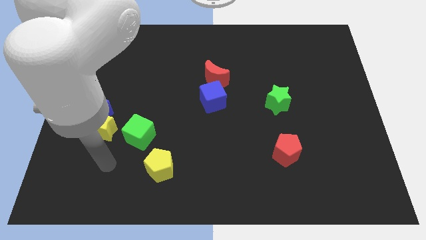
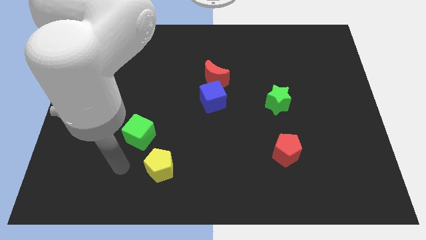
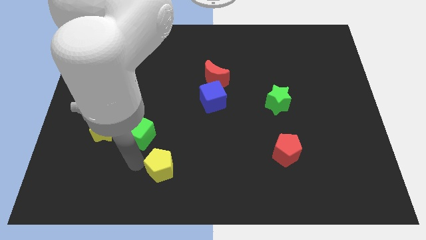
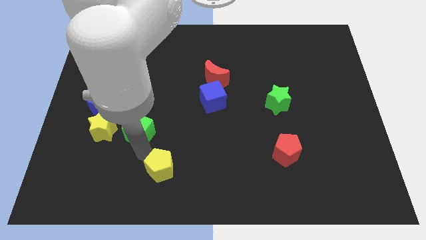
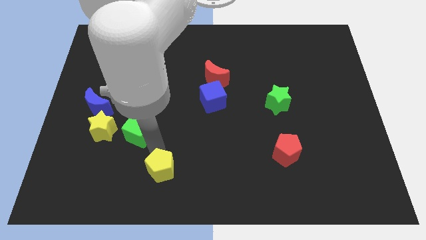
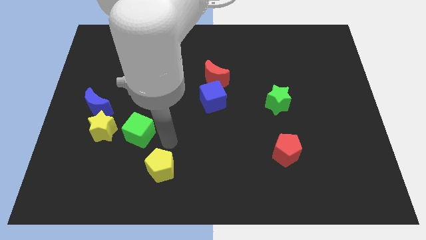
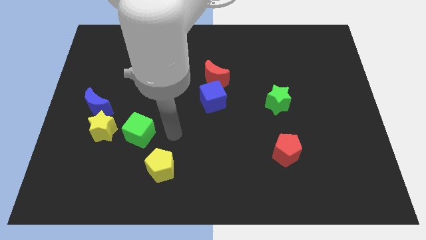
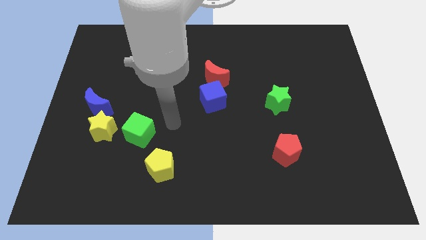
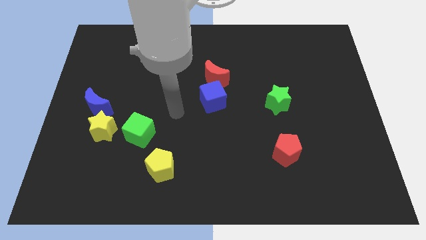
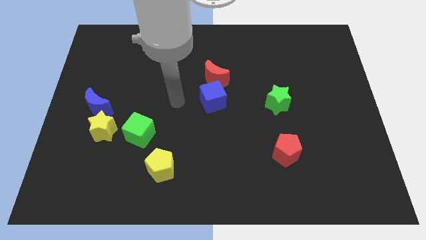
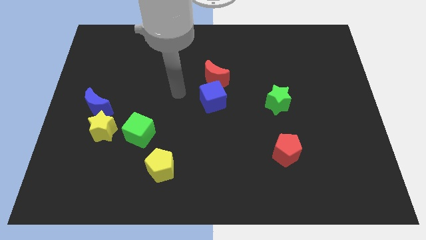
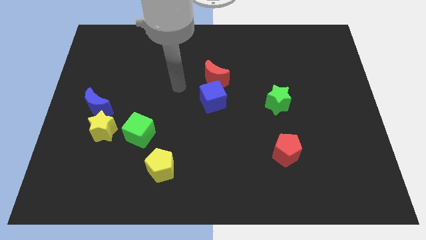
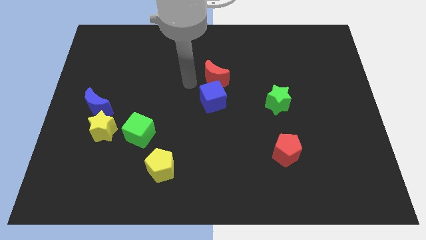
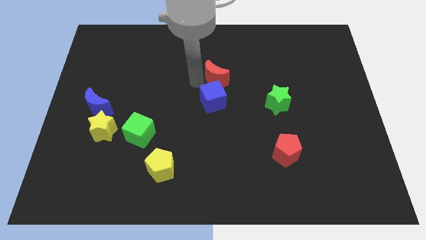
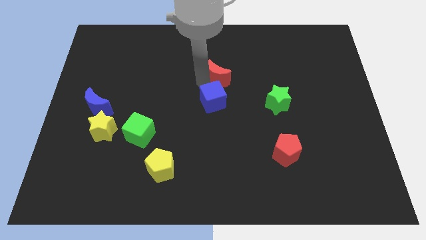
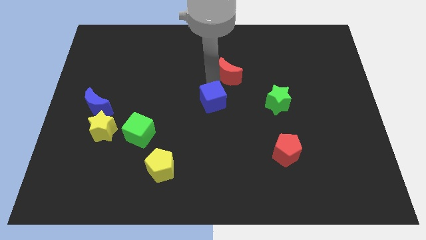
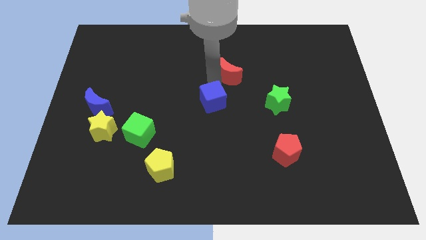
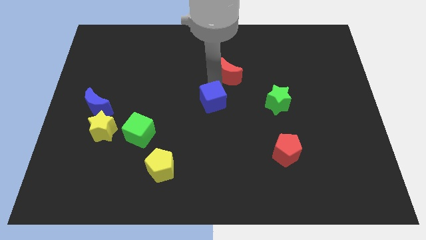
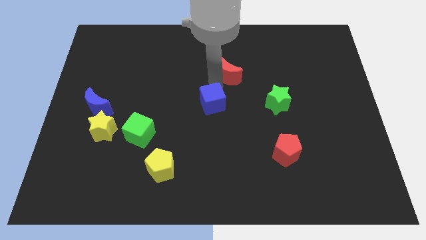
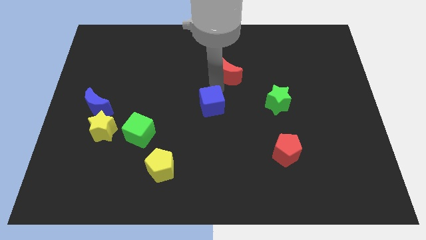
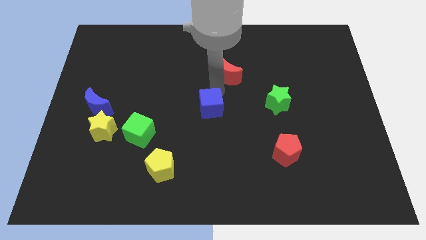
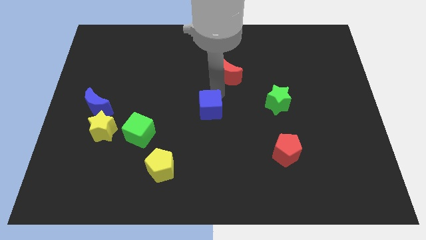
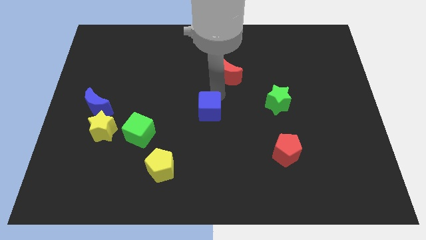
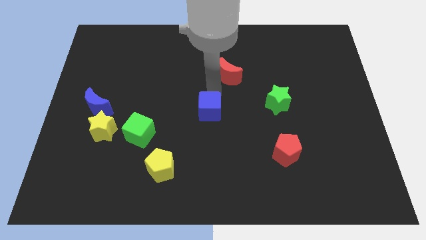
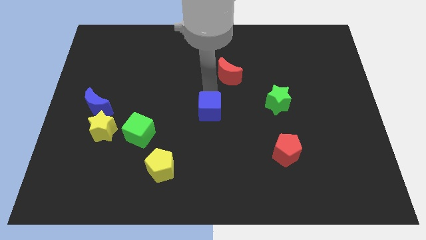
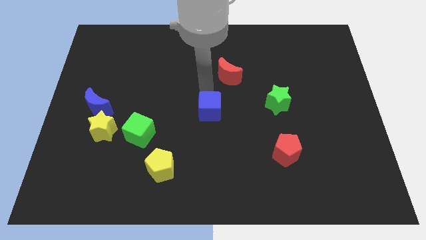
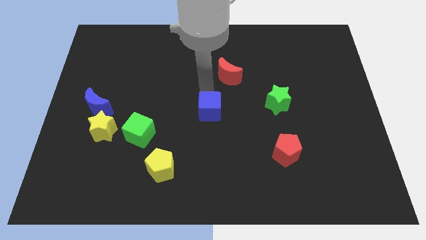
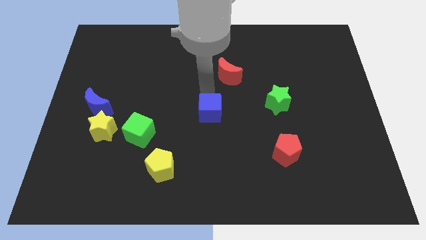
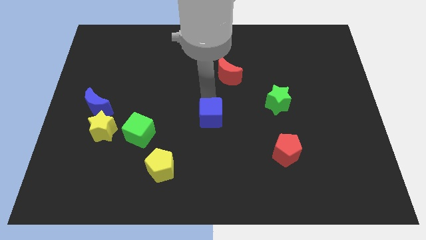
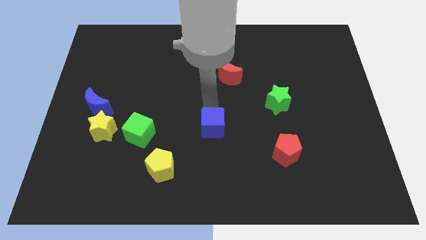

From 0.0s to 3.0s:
move the blue cube down a bit

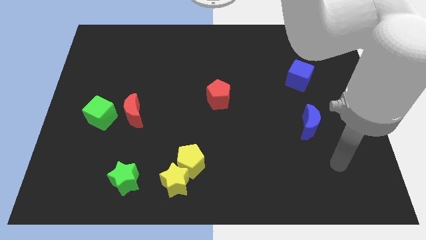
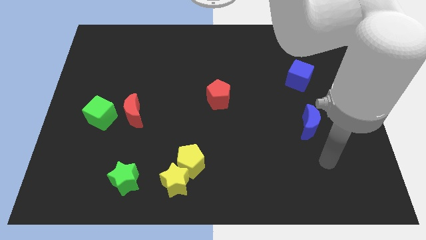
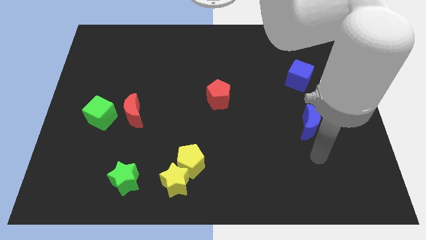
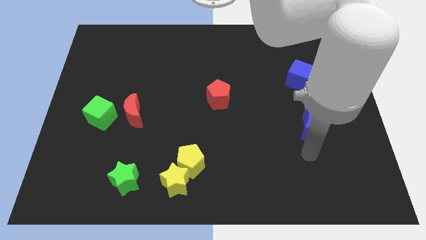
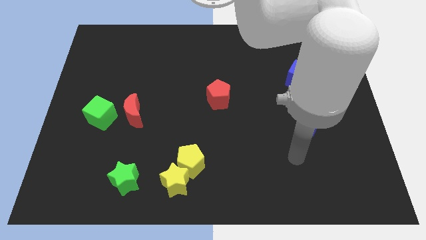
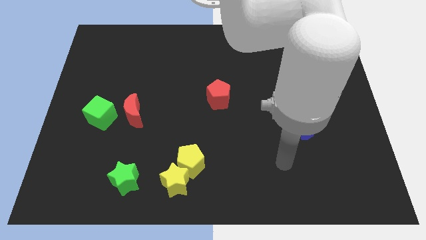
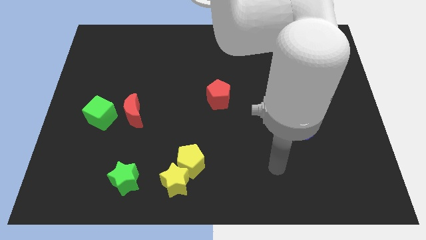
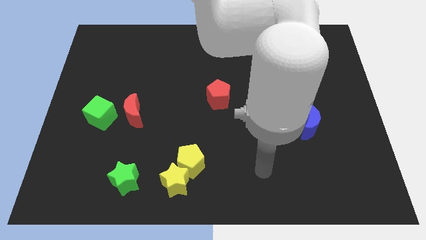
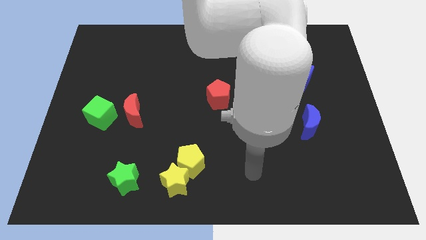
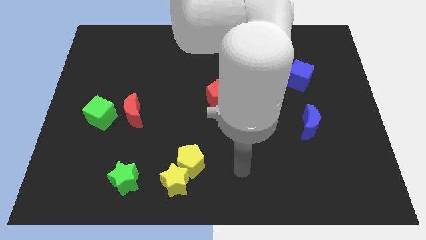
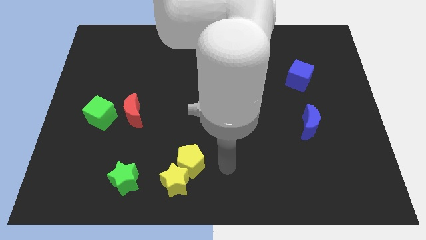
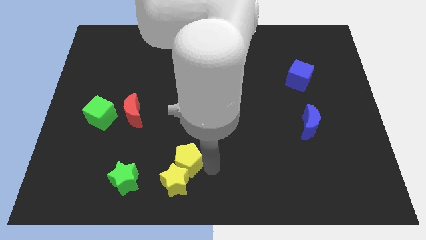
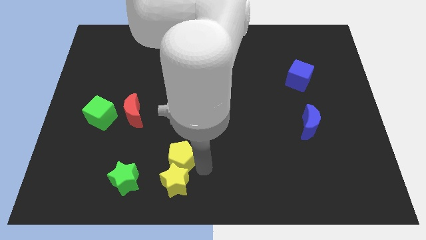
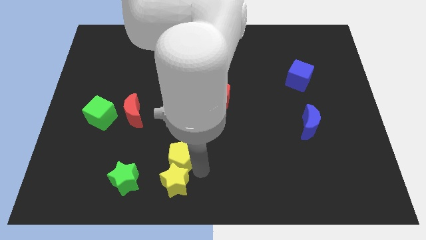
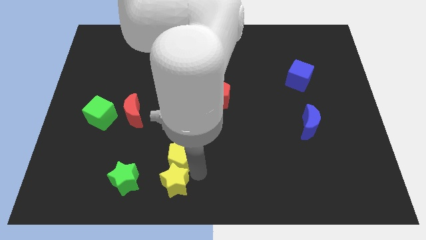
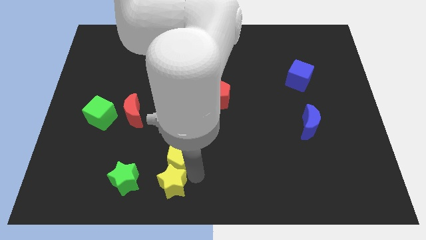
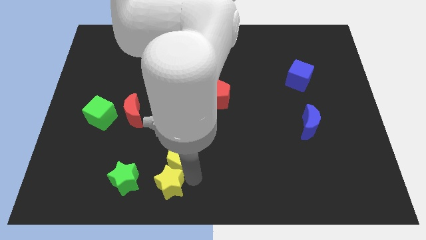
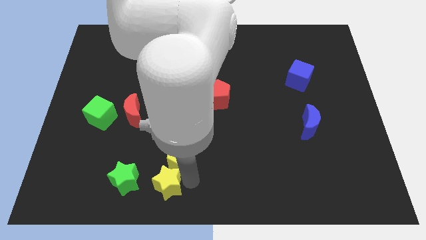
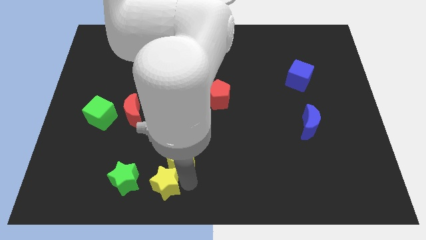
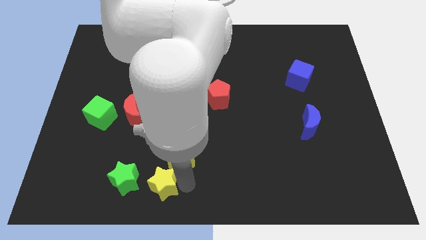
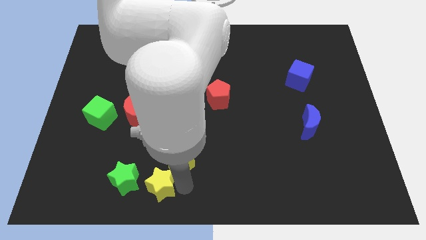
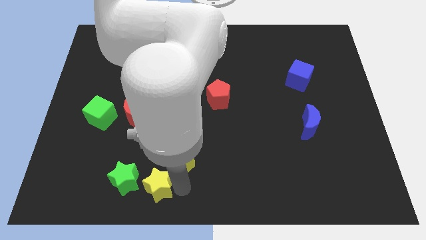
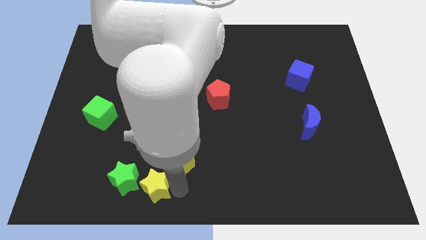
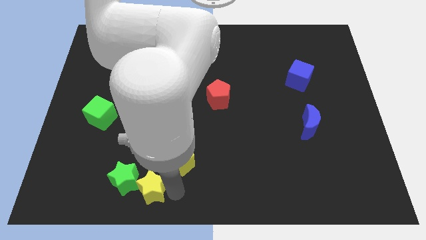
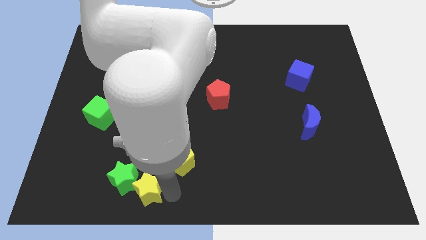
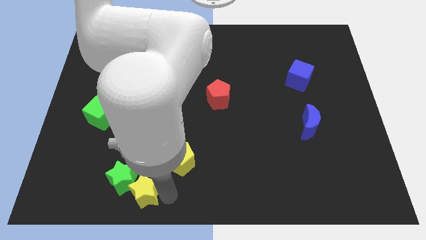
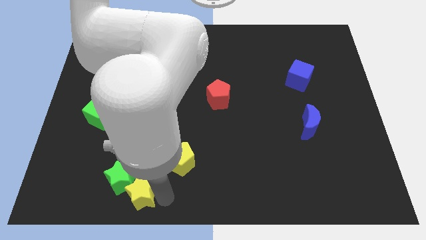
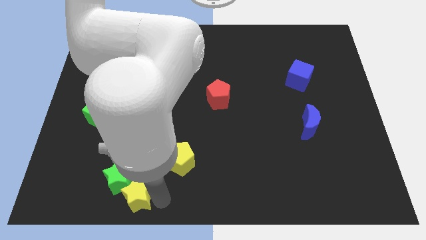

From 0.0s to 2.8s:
move the yellow star somewhat to the left

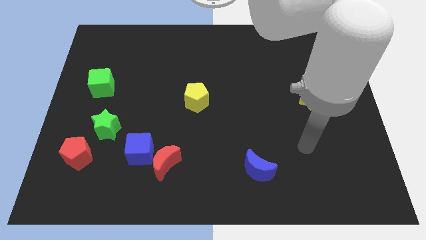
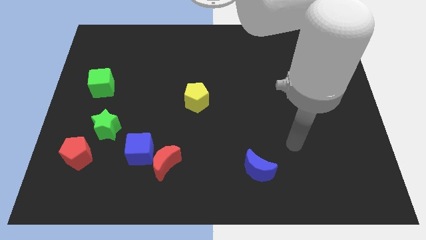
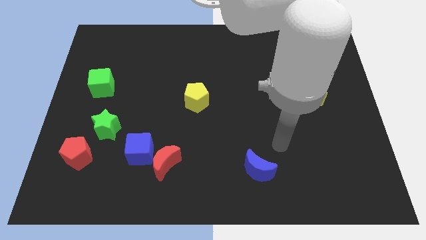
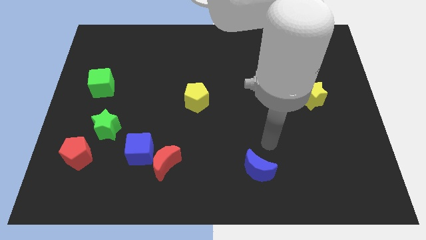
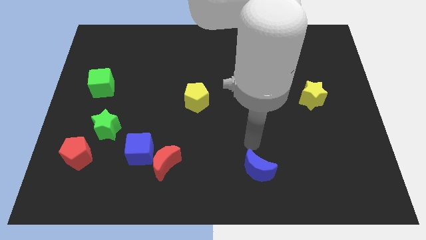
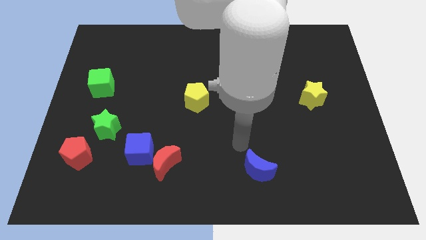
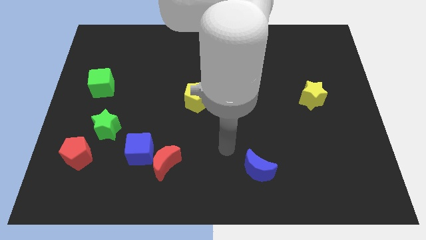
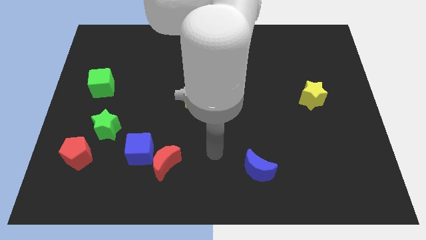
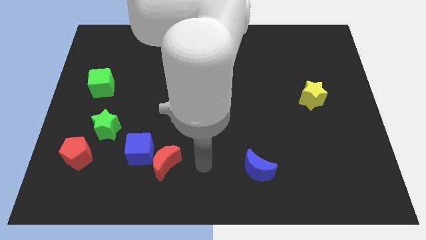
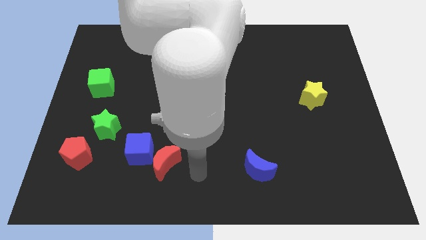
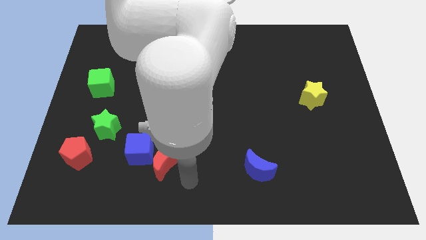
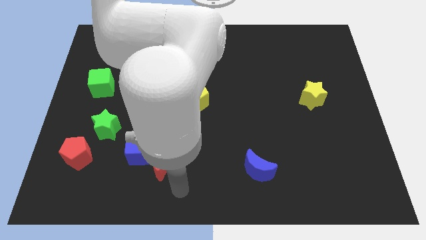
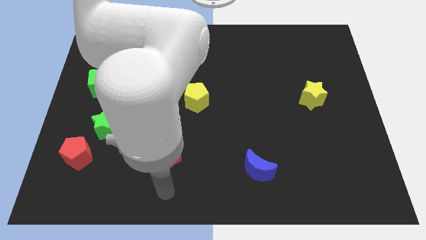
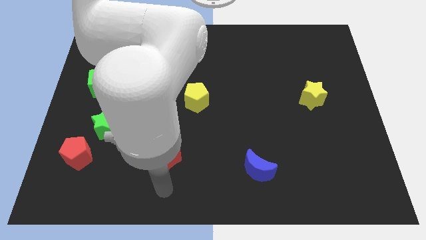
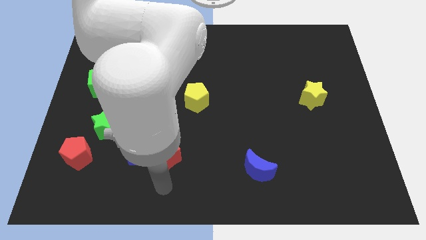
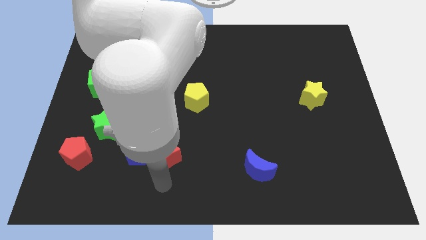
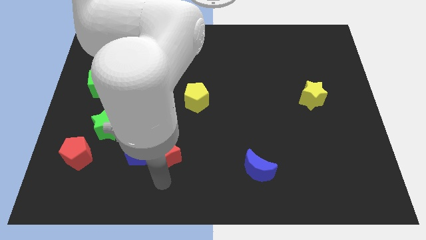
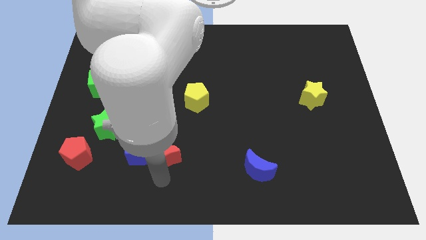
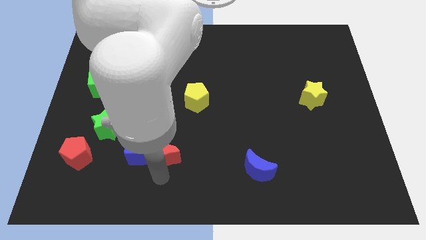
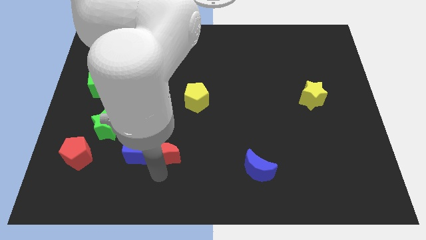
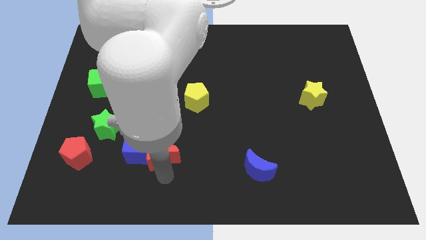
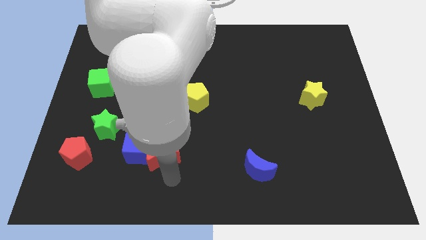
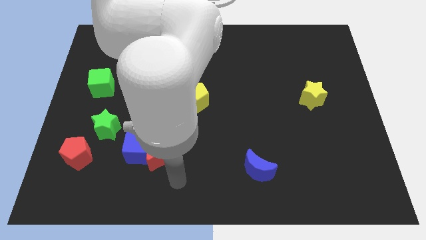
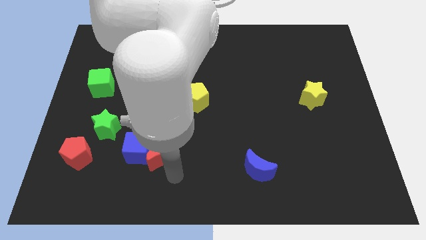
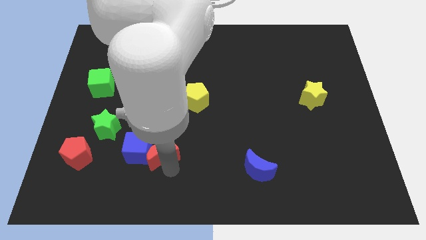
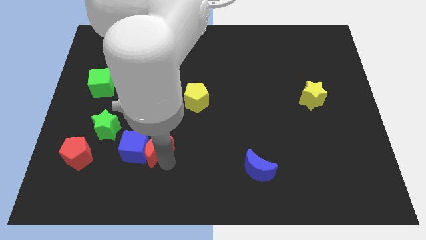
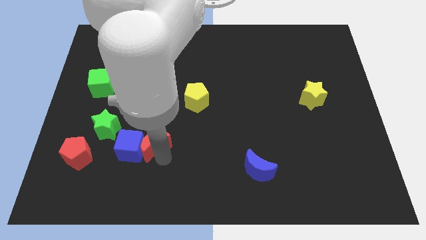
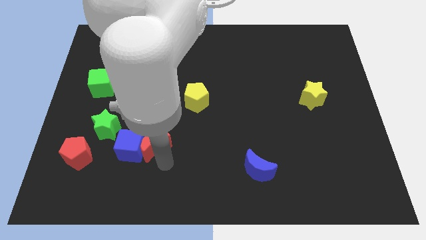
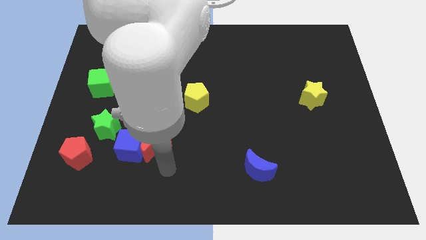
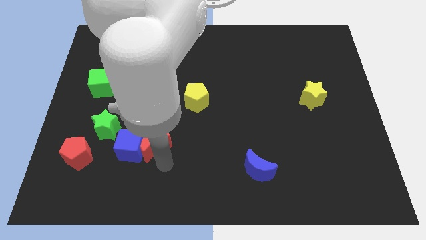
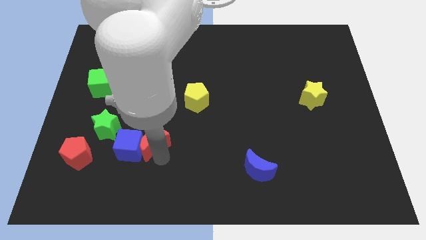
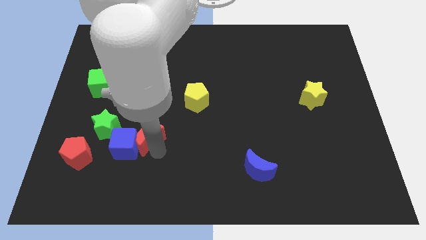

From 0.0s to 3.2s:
push the red moon slightly upwards and then to the left
